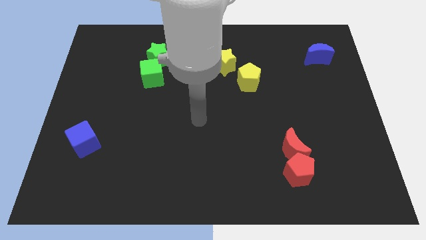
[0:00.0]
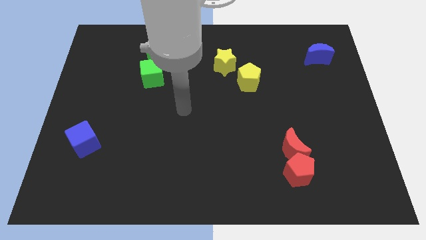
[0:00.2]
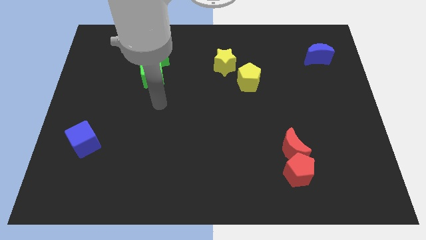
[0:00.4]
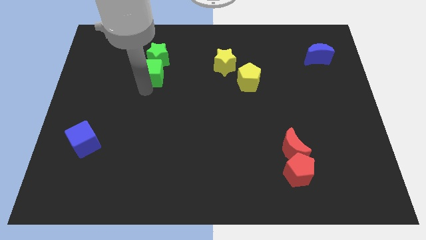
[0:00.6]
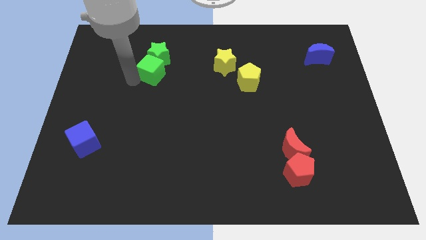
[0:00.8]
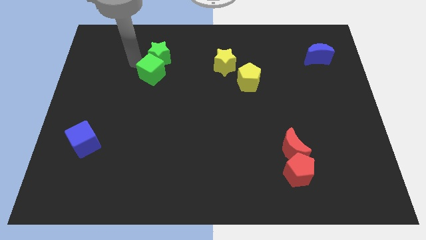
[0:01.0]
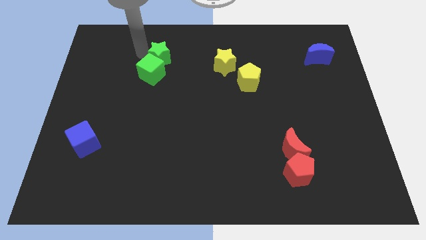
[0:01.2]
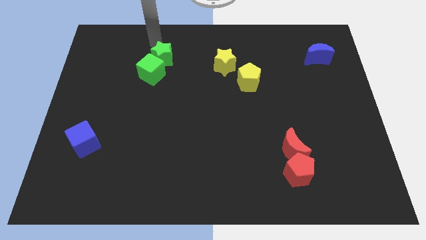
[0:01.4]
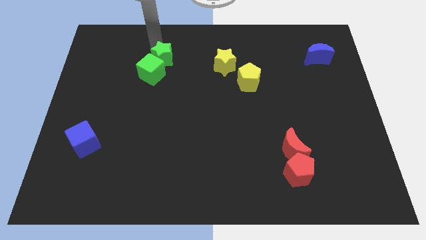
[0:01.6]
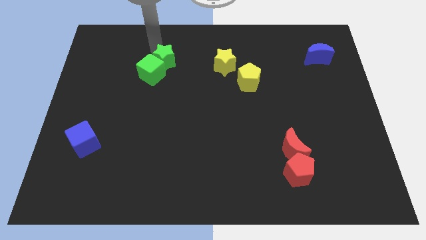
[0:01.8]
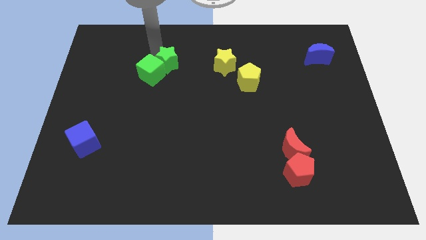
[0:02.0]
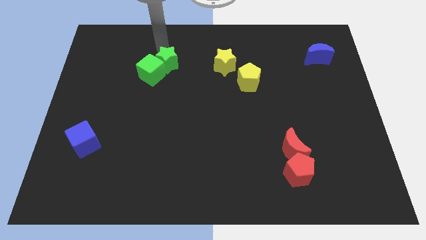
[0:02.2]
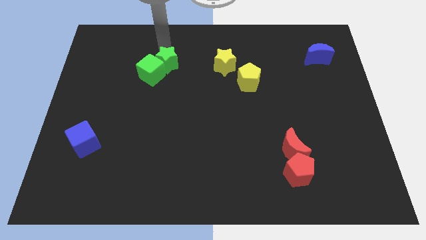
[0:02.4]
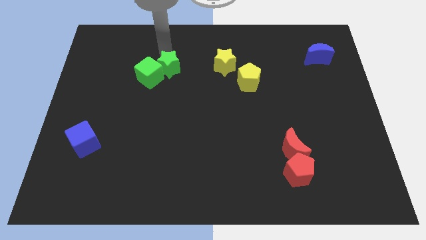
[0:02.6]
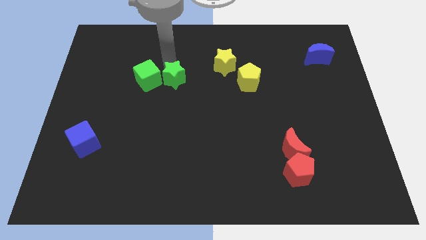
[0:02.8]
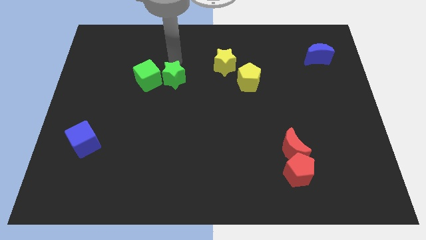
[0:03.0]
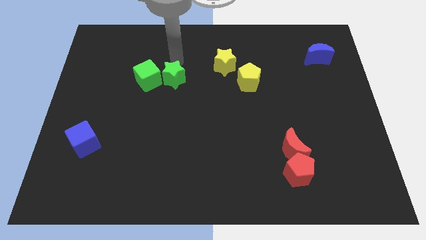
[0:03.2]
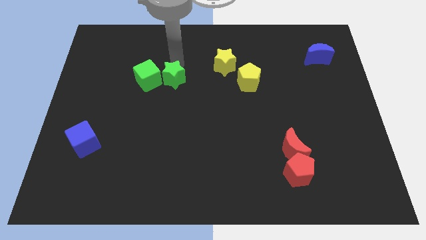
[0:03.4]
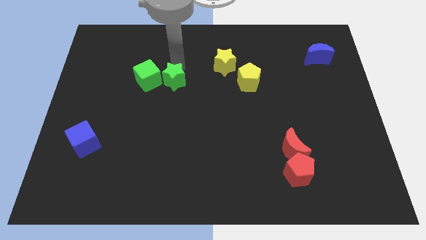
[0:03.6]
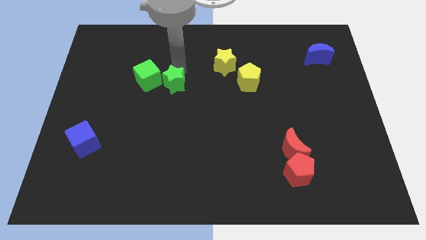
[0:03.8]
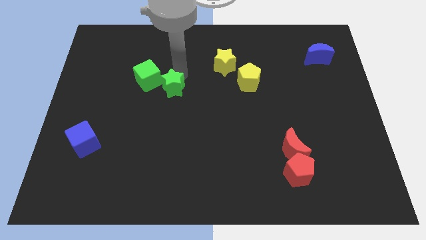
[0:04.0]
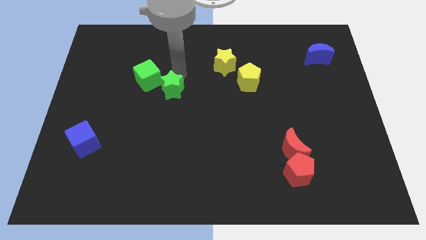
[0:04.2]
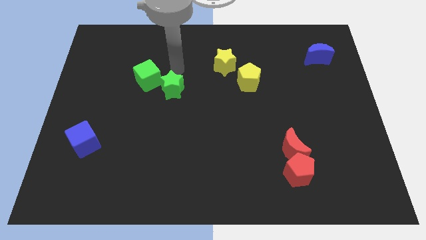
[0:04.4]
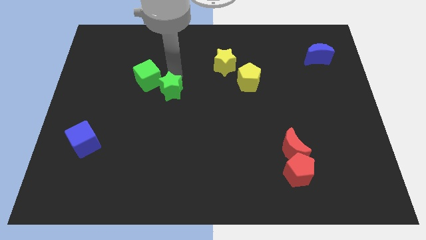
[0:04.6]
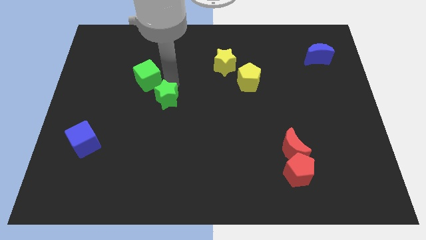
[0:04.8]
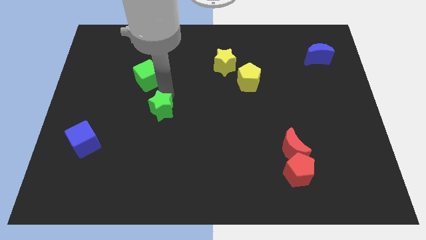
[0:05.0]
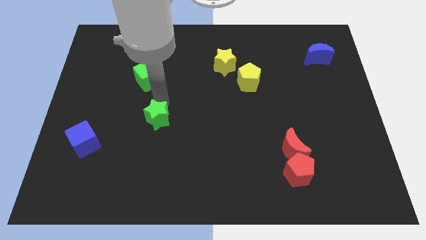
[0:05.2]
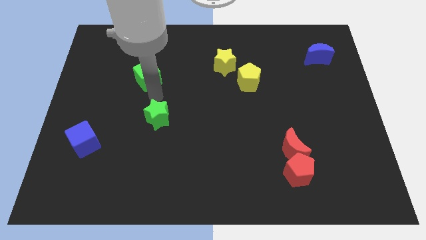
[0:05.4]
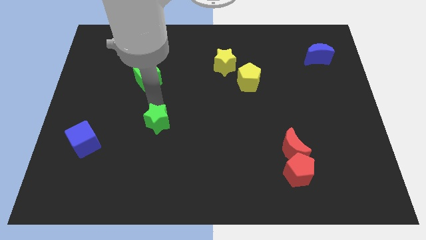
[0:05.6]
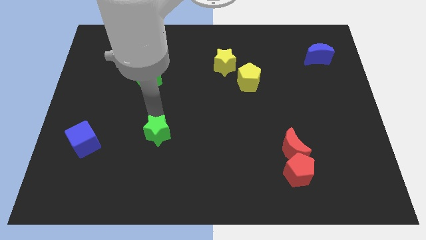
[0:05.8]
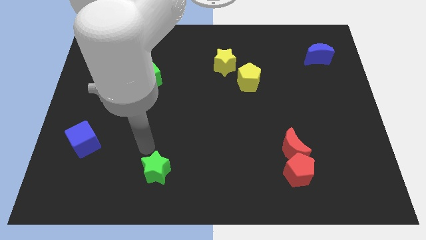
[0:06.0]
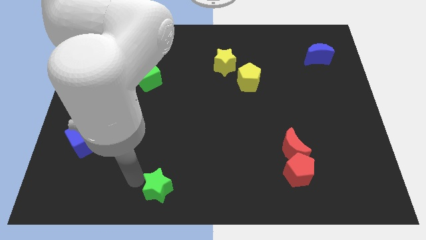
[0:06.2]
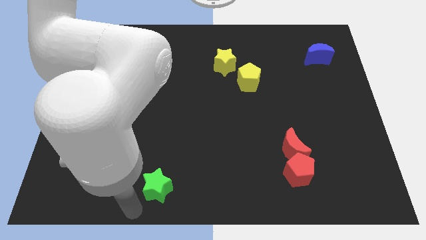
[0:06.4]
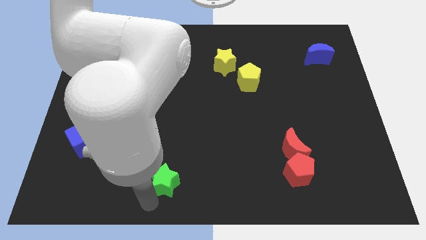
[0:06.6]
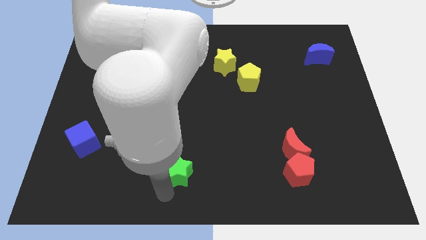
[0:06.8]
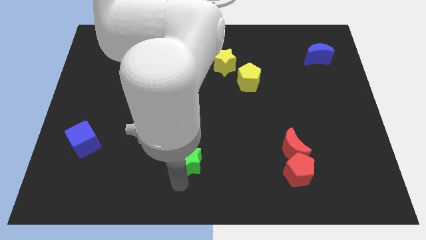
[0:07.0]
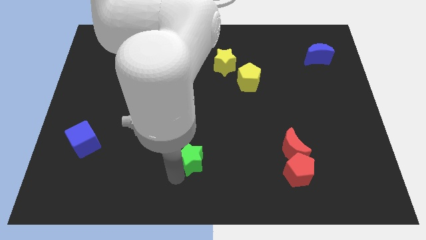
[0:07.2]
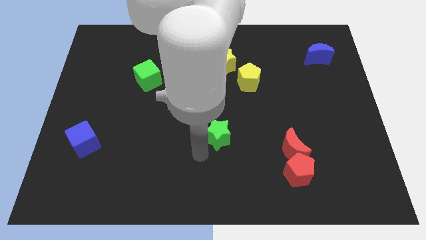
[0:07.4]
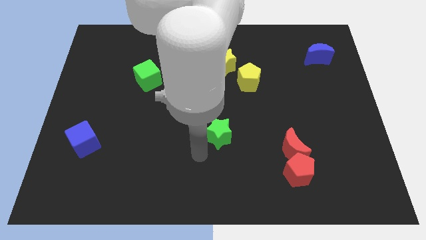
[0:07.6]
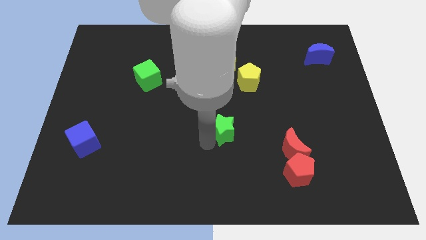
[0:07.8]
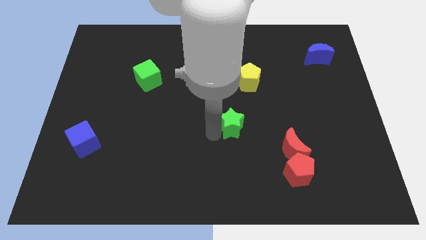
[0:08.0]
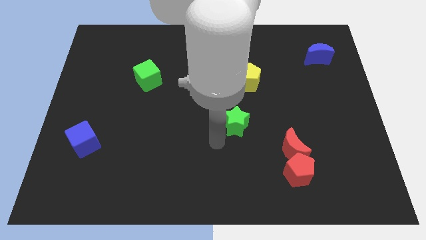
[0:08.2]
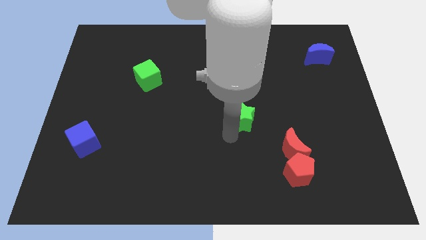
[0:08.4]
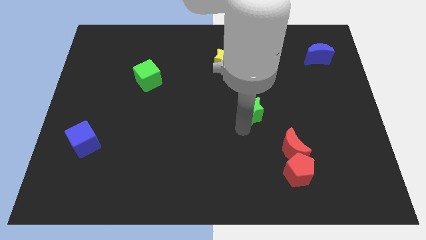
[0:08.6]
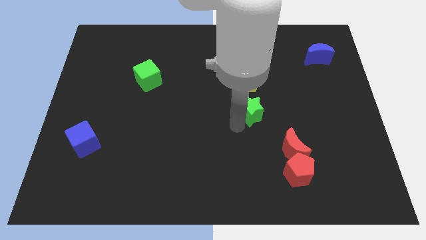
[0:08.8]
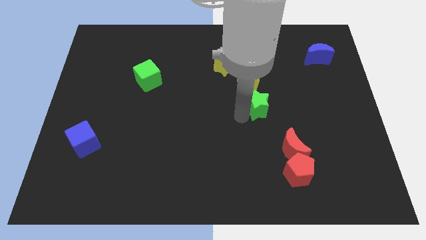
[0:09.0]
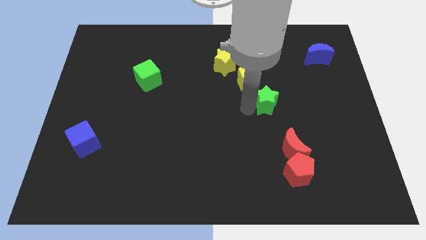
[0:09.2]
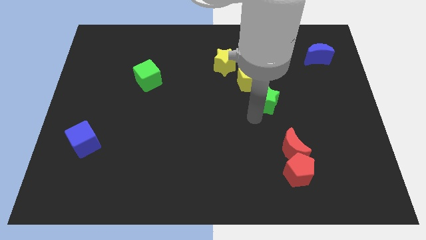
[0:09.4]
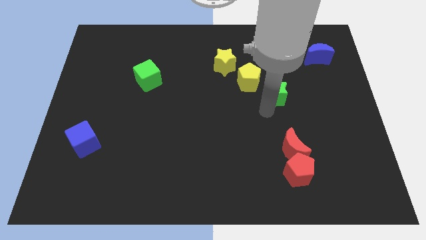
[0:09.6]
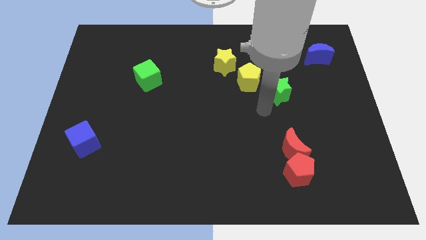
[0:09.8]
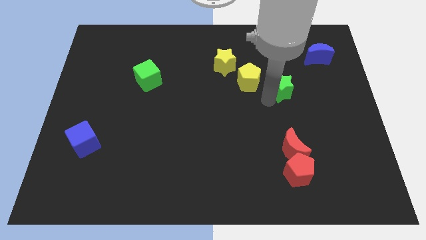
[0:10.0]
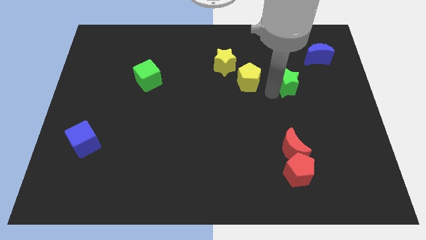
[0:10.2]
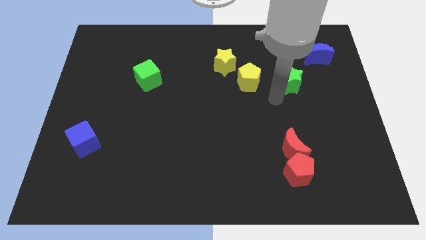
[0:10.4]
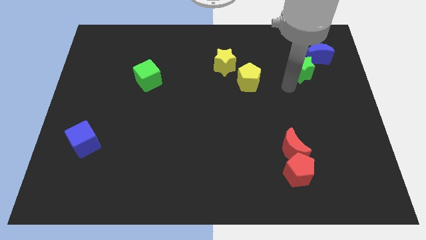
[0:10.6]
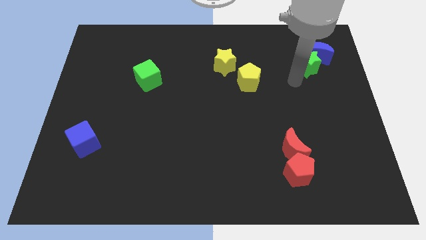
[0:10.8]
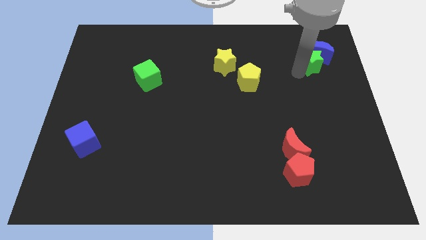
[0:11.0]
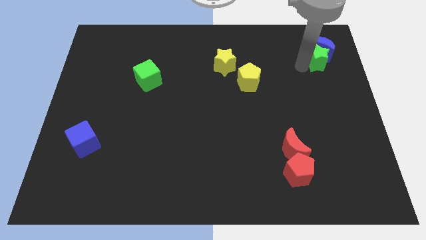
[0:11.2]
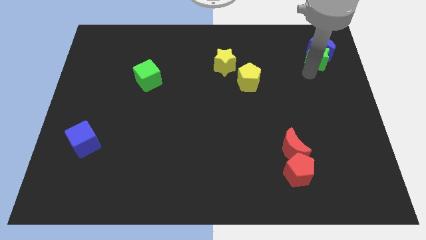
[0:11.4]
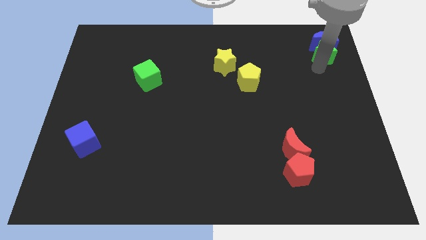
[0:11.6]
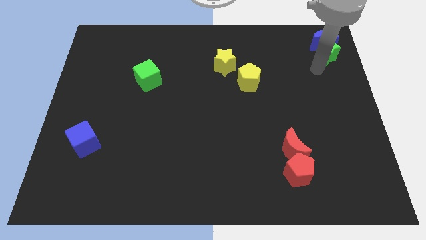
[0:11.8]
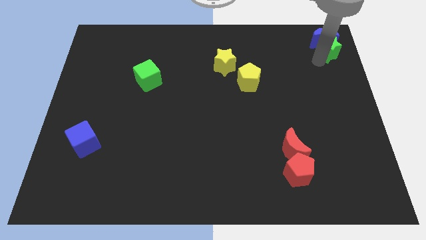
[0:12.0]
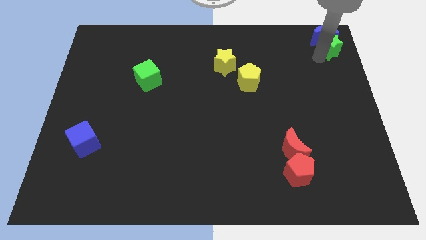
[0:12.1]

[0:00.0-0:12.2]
move the green star to the upper right corner
